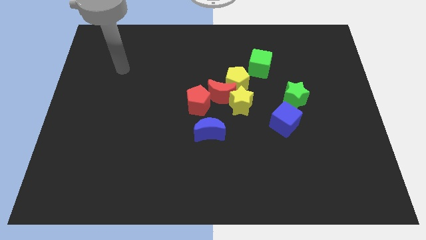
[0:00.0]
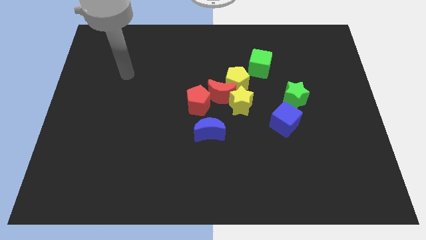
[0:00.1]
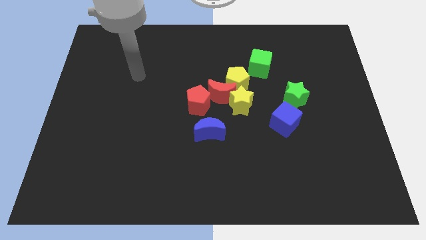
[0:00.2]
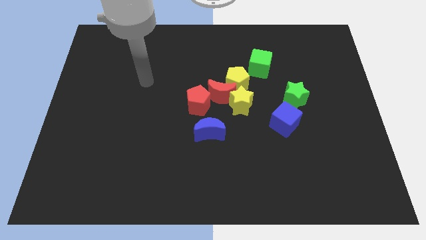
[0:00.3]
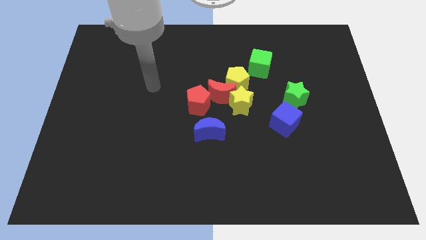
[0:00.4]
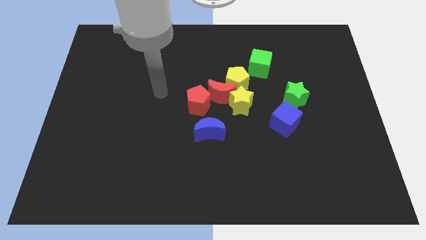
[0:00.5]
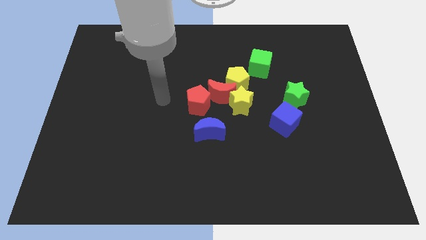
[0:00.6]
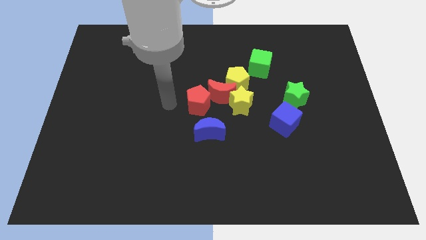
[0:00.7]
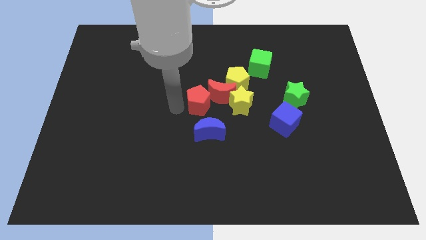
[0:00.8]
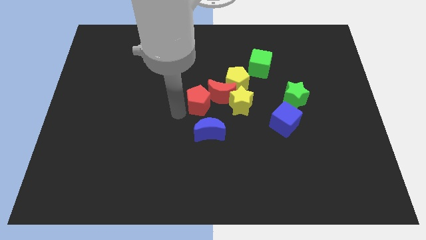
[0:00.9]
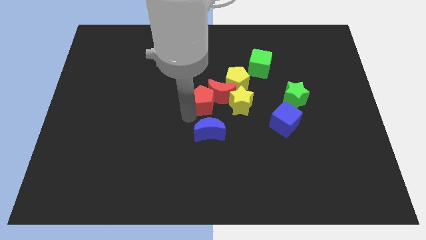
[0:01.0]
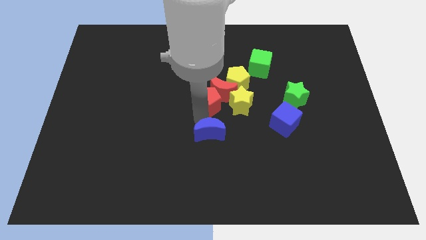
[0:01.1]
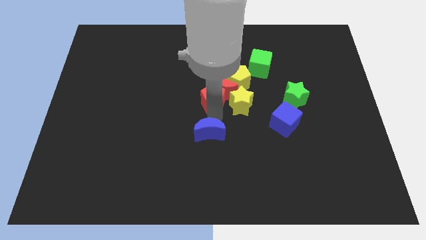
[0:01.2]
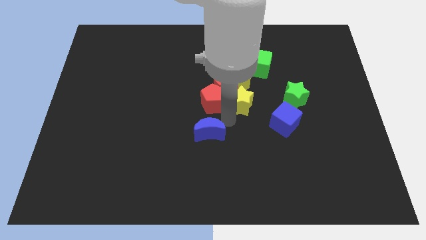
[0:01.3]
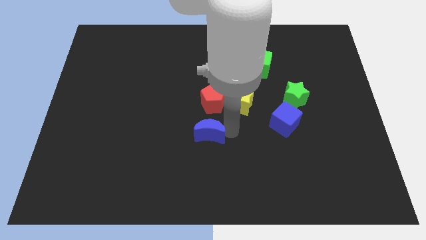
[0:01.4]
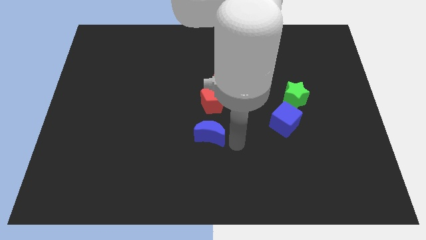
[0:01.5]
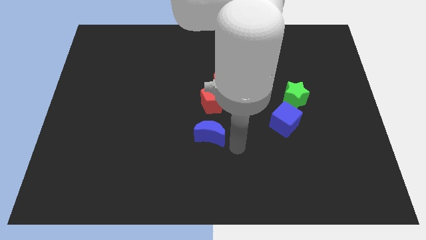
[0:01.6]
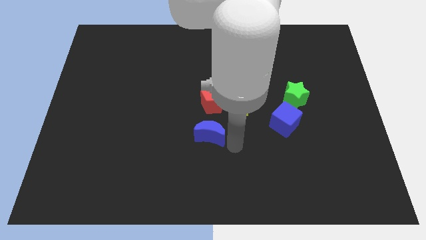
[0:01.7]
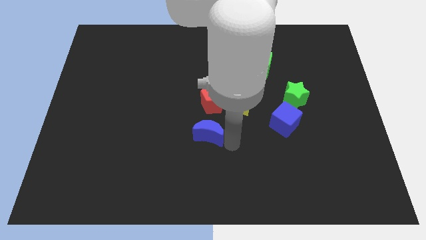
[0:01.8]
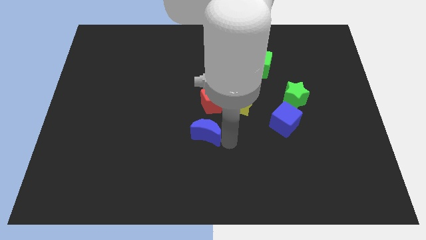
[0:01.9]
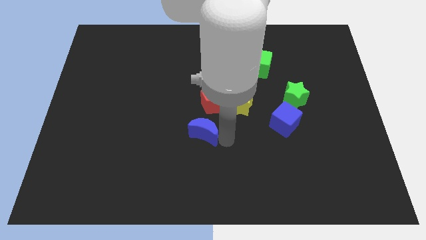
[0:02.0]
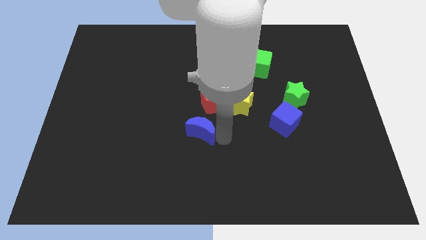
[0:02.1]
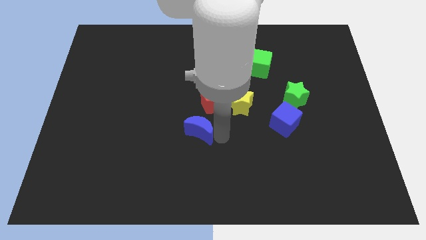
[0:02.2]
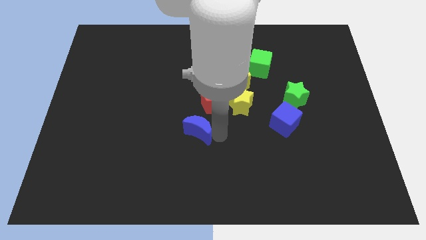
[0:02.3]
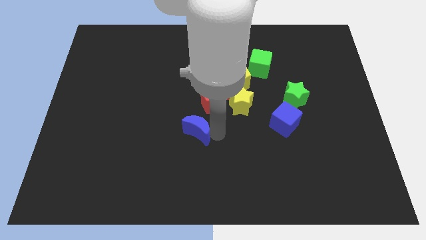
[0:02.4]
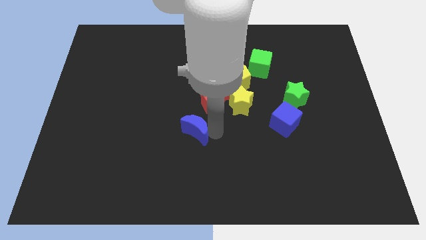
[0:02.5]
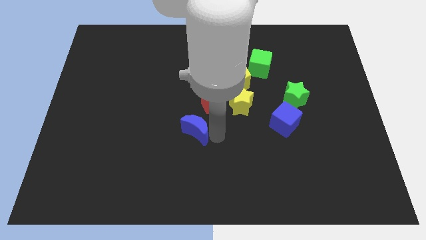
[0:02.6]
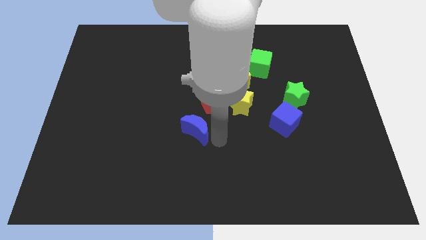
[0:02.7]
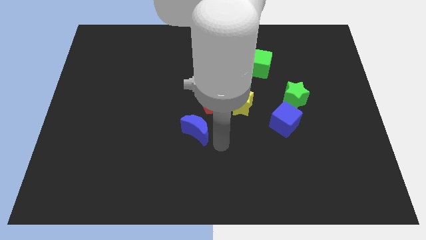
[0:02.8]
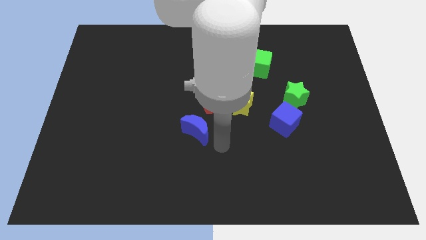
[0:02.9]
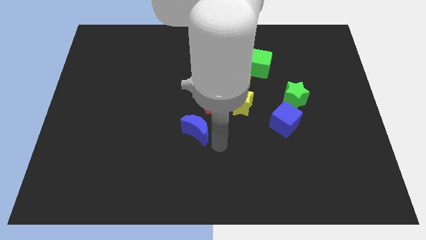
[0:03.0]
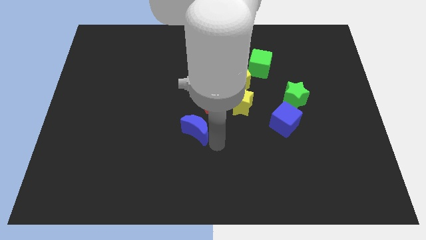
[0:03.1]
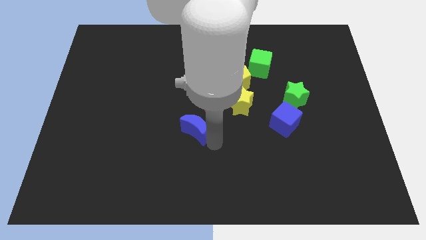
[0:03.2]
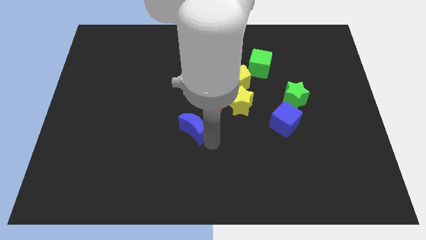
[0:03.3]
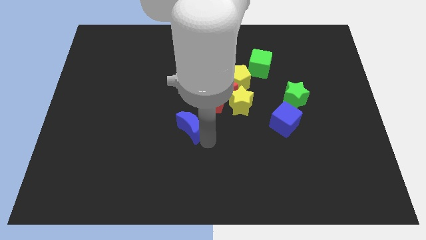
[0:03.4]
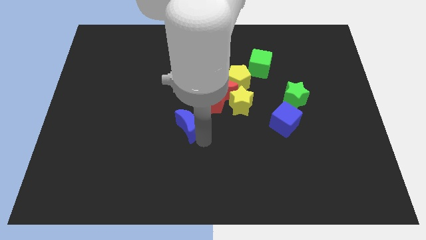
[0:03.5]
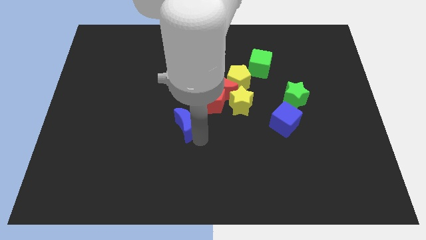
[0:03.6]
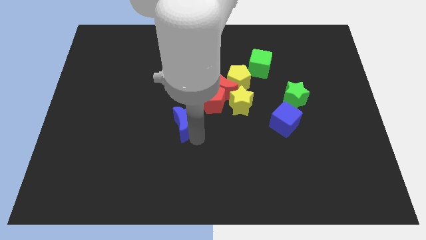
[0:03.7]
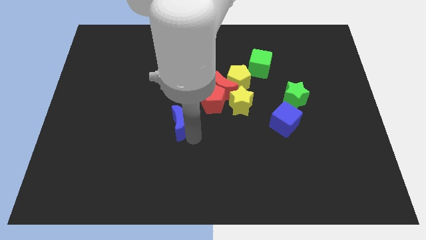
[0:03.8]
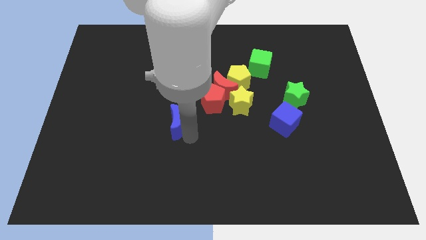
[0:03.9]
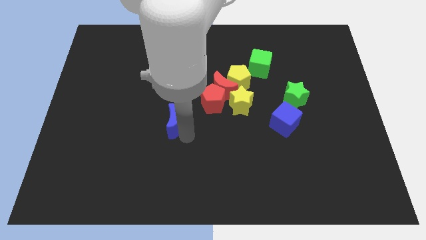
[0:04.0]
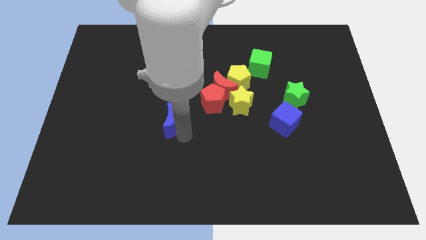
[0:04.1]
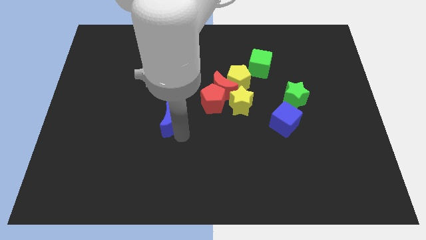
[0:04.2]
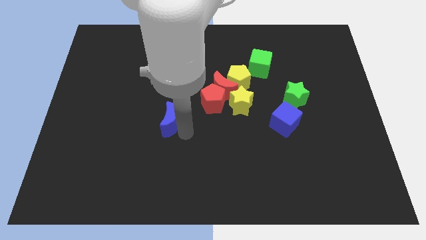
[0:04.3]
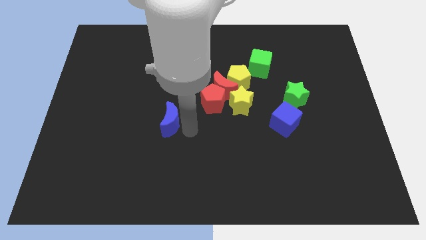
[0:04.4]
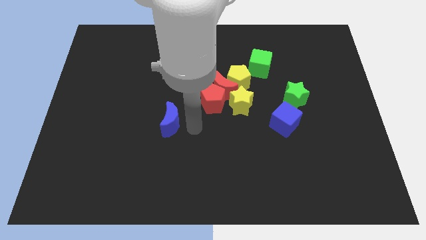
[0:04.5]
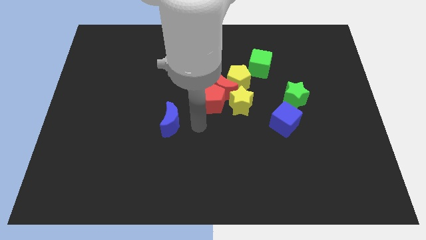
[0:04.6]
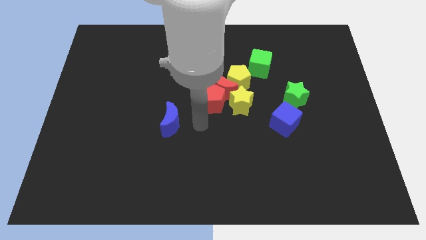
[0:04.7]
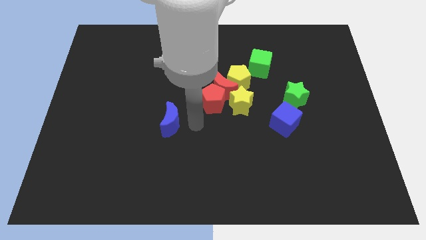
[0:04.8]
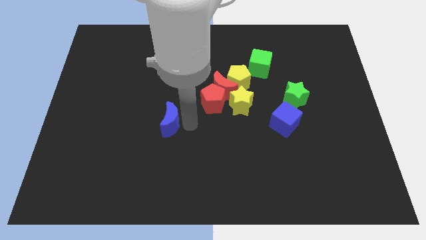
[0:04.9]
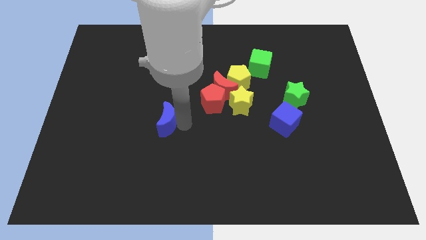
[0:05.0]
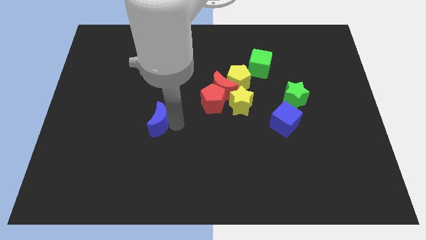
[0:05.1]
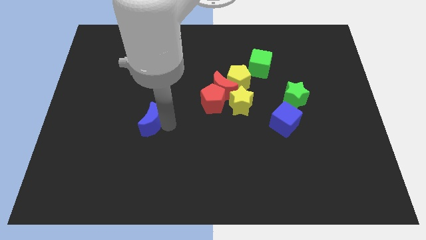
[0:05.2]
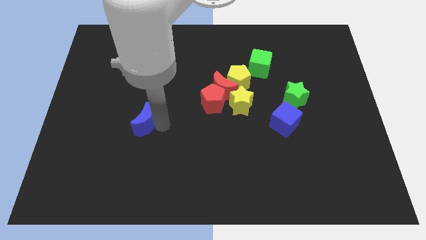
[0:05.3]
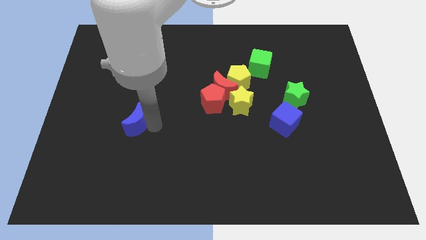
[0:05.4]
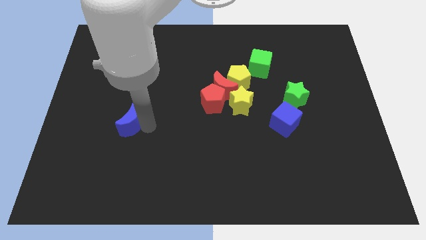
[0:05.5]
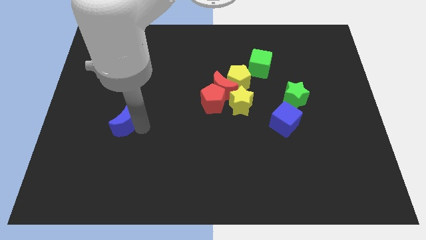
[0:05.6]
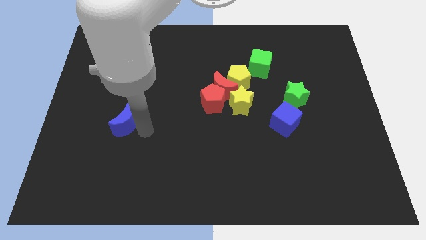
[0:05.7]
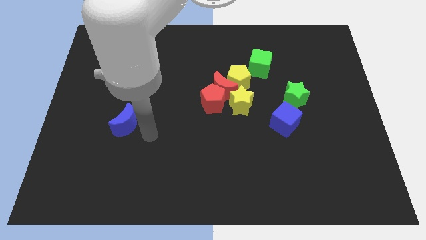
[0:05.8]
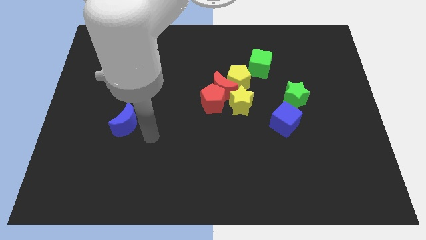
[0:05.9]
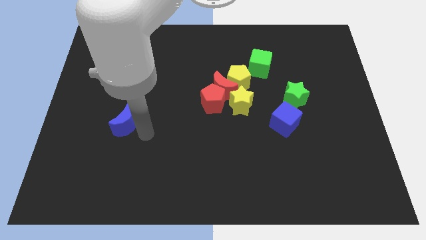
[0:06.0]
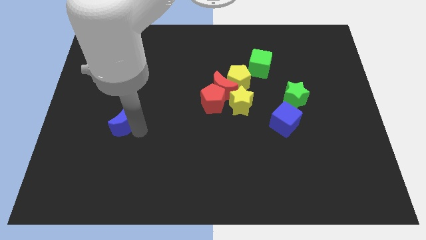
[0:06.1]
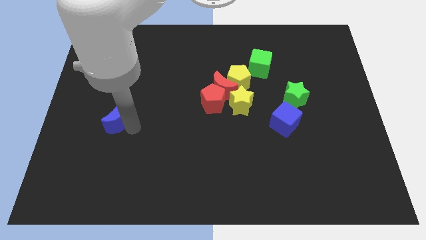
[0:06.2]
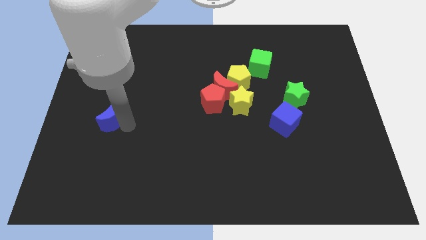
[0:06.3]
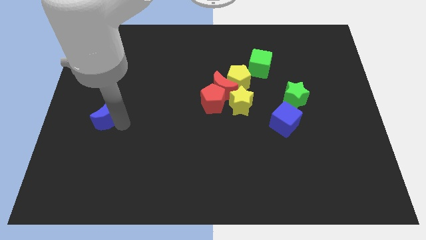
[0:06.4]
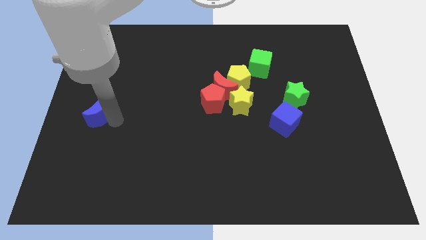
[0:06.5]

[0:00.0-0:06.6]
push the blue moon to the left side of the board
